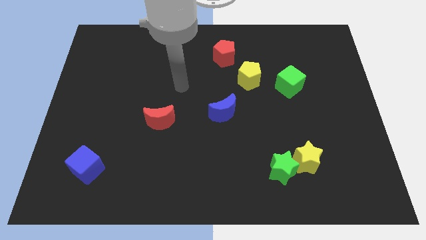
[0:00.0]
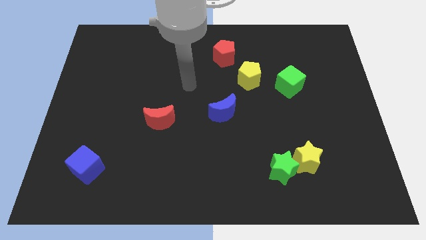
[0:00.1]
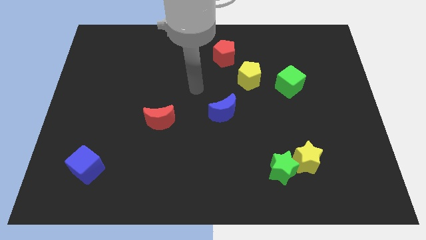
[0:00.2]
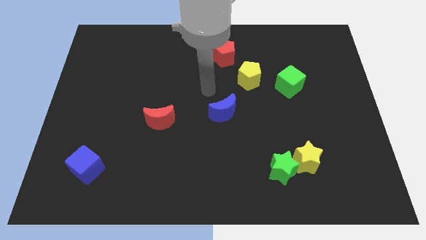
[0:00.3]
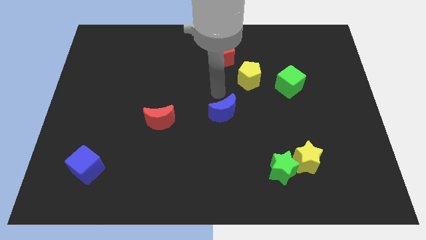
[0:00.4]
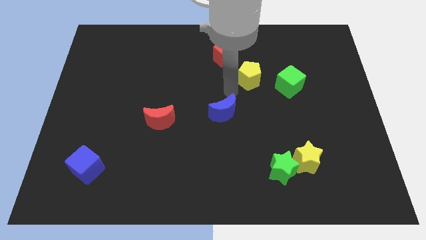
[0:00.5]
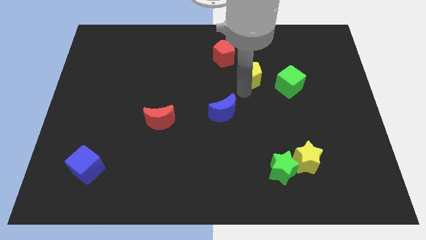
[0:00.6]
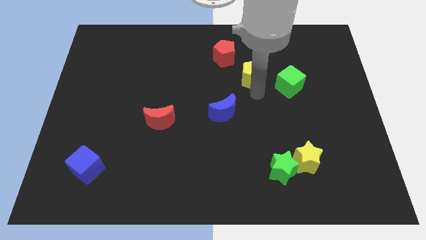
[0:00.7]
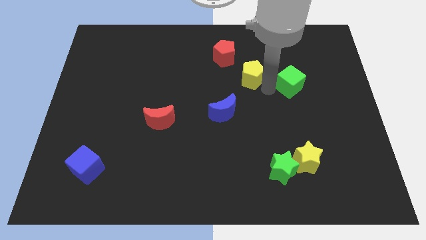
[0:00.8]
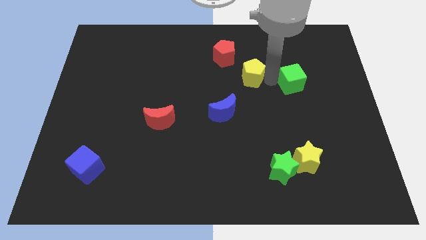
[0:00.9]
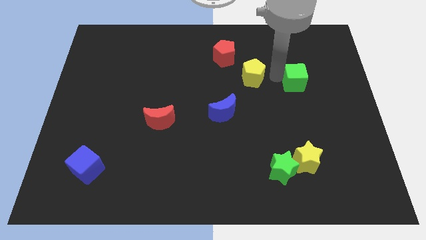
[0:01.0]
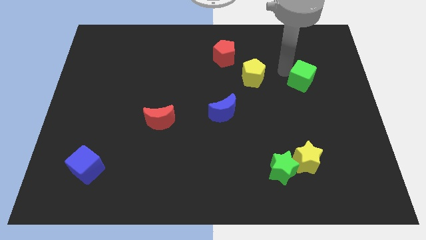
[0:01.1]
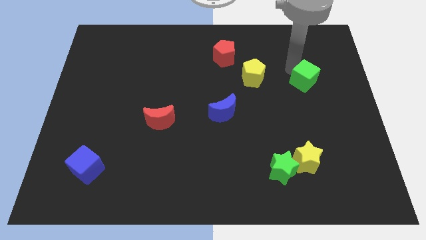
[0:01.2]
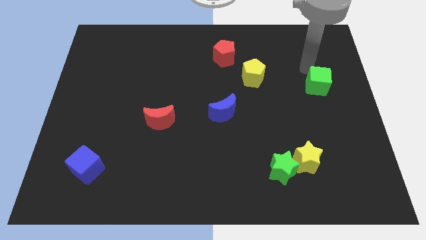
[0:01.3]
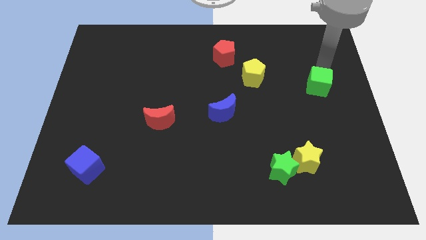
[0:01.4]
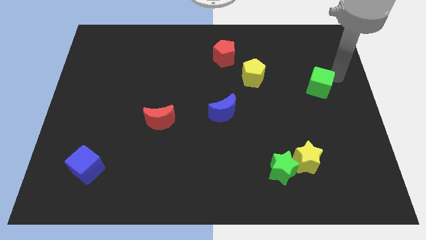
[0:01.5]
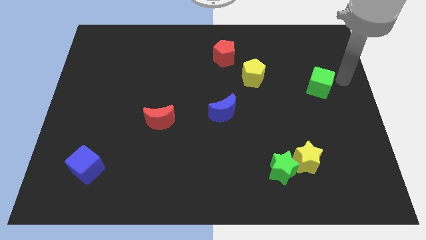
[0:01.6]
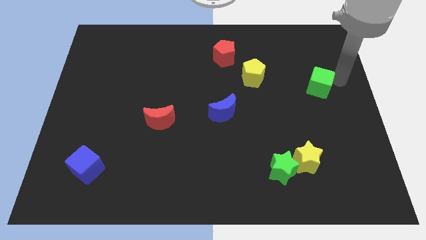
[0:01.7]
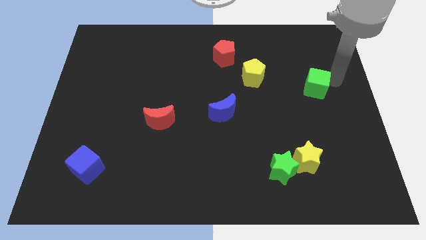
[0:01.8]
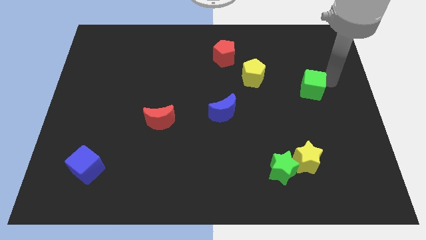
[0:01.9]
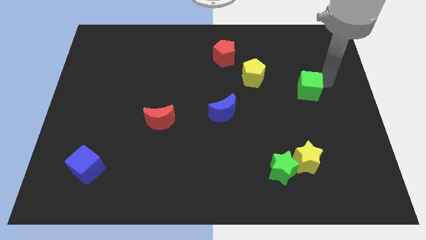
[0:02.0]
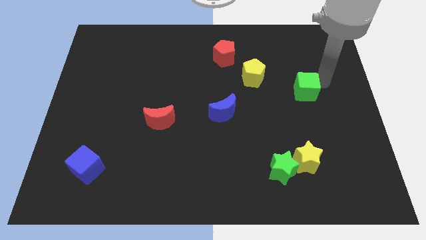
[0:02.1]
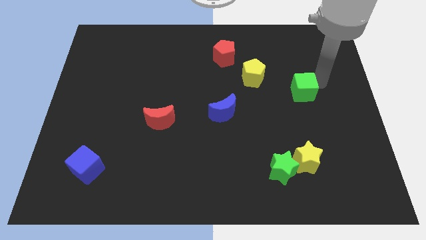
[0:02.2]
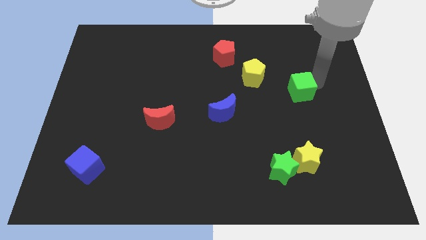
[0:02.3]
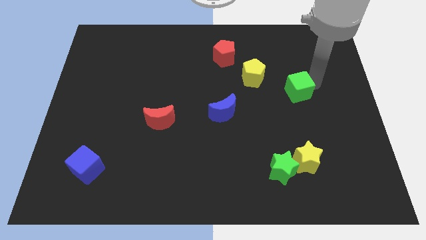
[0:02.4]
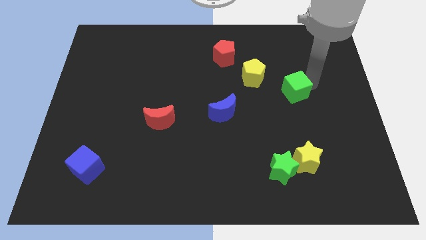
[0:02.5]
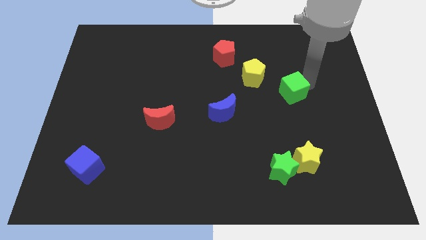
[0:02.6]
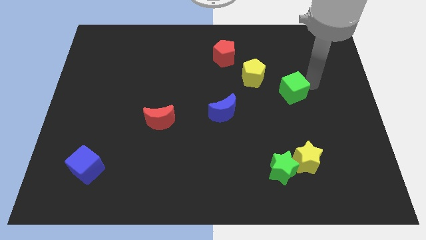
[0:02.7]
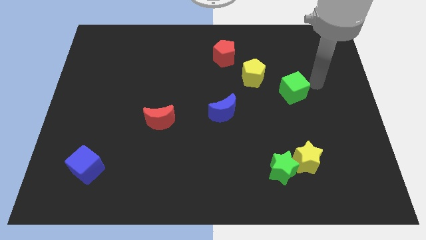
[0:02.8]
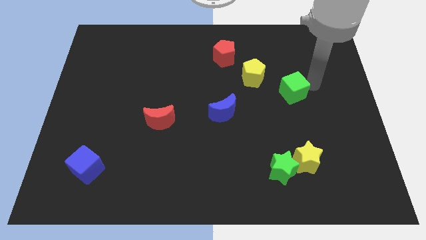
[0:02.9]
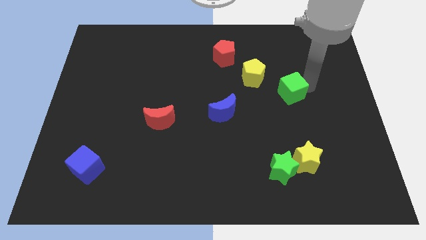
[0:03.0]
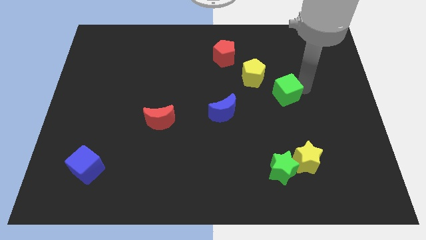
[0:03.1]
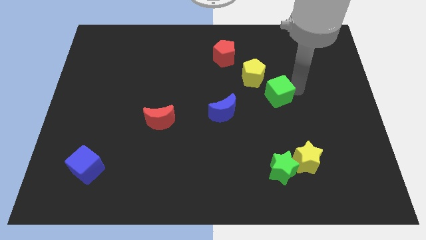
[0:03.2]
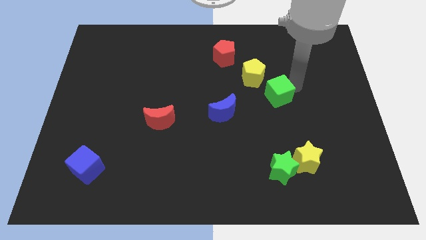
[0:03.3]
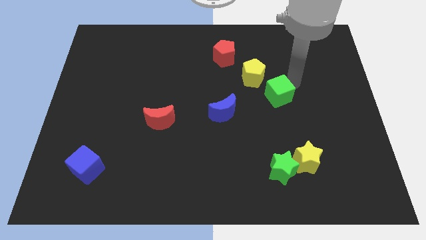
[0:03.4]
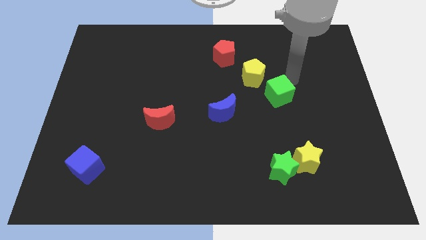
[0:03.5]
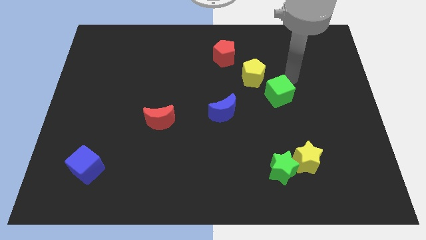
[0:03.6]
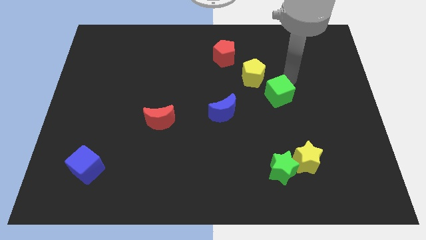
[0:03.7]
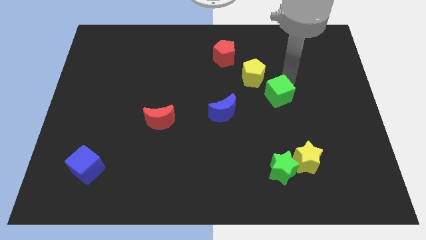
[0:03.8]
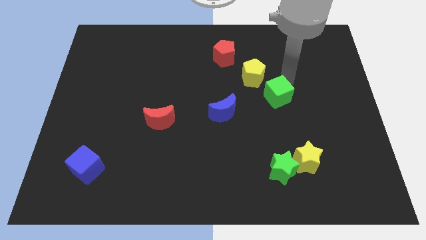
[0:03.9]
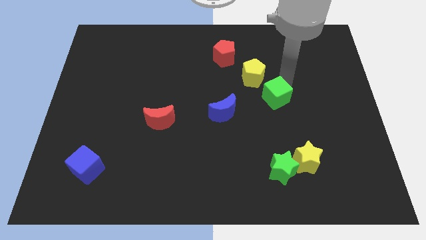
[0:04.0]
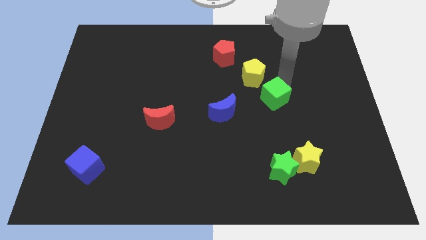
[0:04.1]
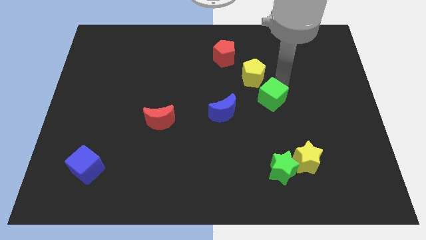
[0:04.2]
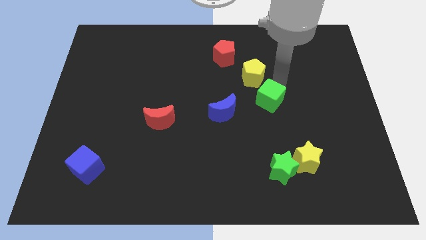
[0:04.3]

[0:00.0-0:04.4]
slightly move the green cube down and to the left

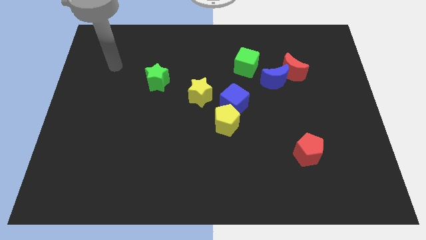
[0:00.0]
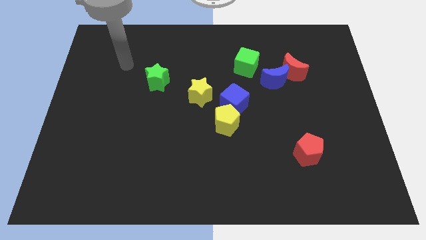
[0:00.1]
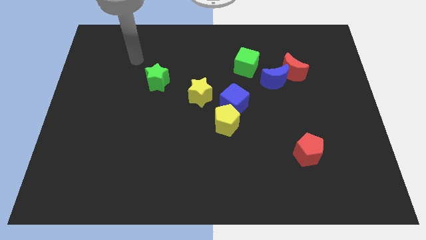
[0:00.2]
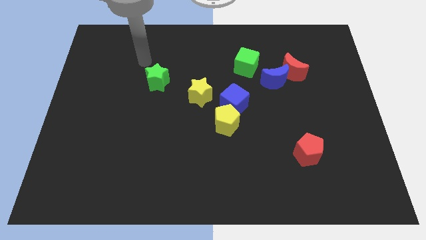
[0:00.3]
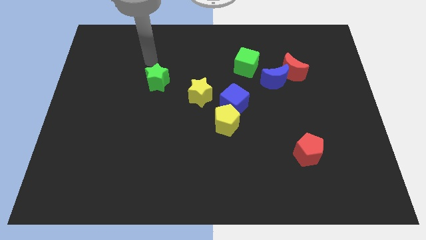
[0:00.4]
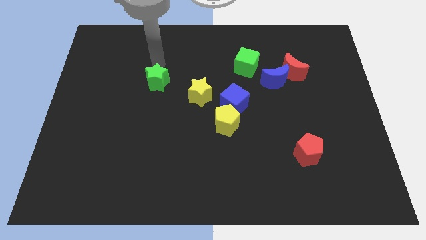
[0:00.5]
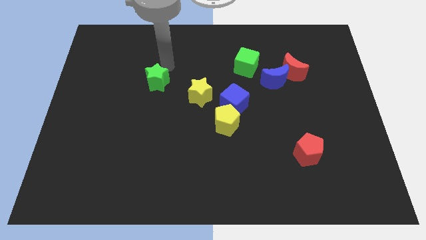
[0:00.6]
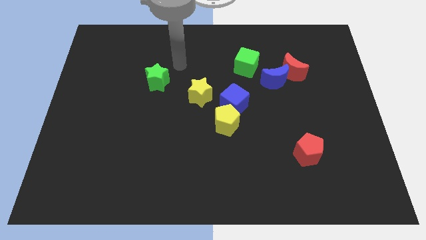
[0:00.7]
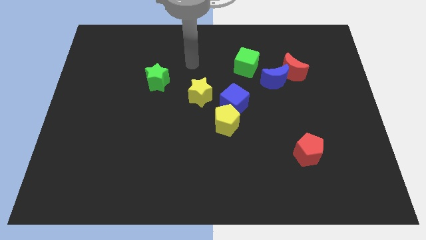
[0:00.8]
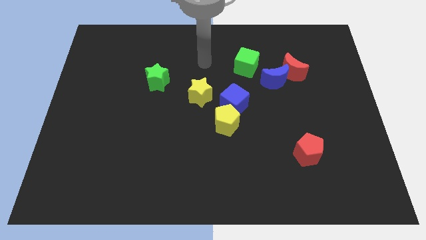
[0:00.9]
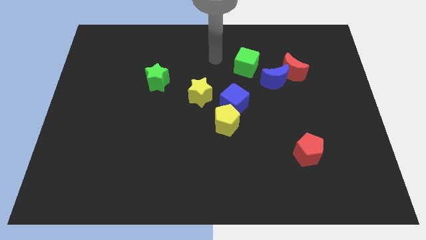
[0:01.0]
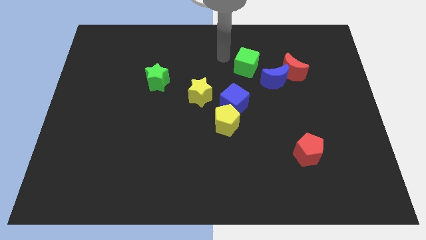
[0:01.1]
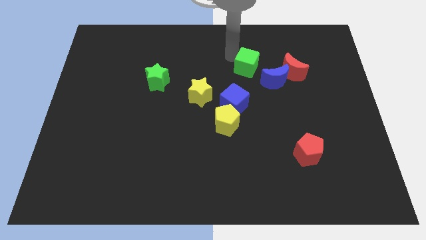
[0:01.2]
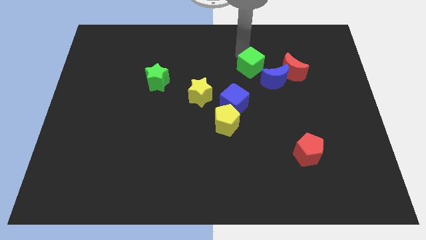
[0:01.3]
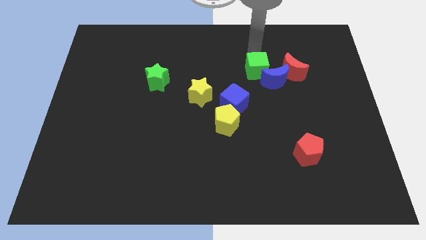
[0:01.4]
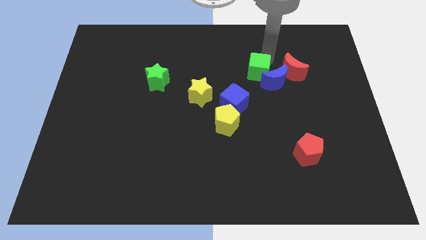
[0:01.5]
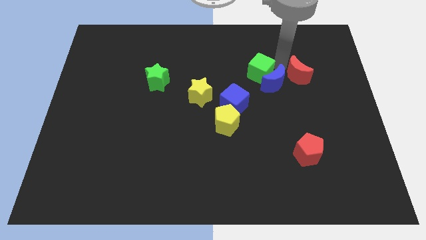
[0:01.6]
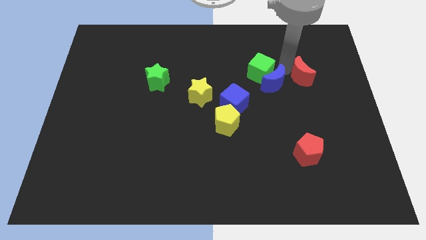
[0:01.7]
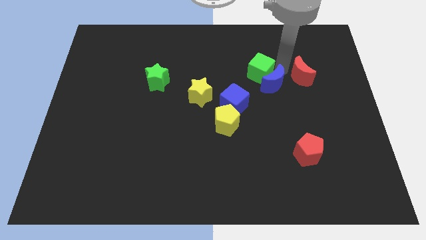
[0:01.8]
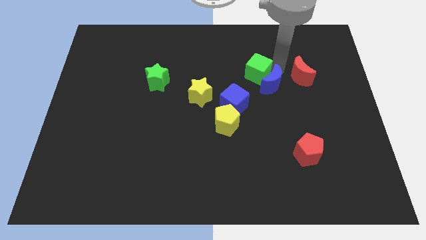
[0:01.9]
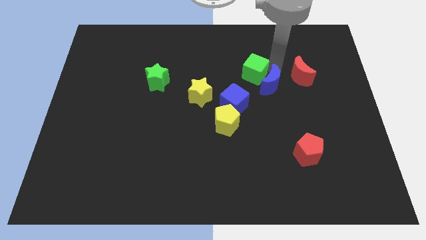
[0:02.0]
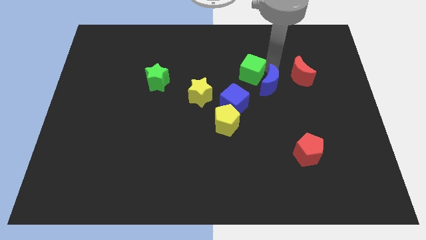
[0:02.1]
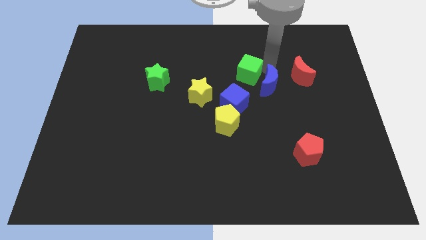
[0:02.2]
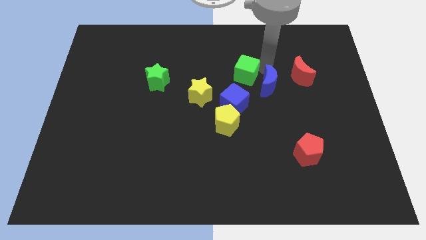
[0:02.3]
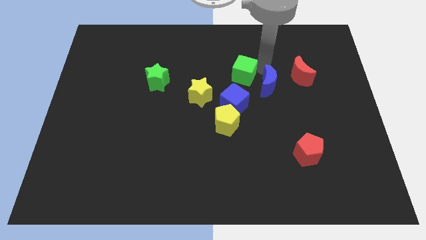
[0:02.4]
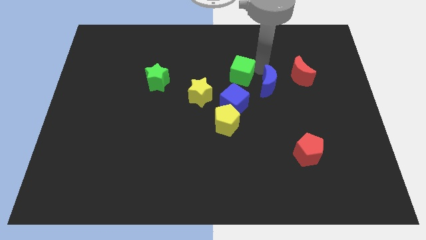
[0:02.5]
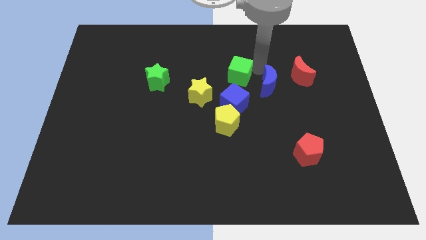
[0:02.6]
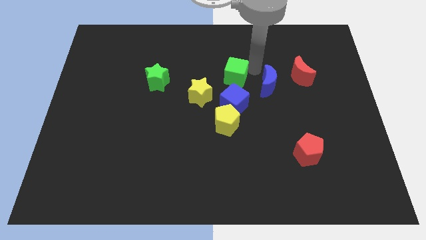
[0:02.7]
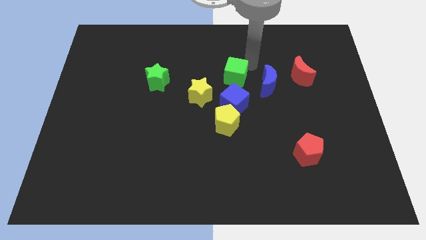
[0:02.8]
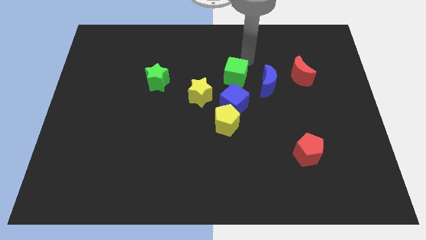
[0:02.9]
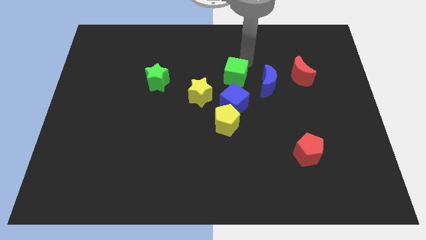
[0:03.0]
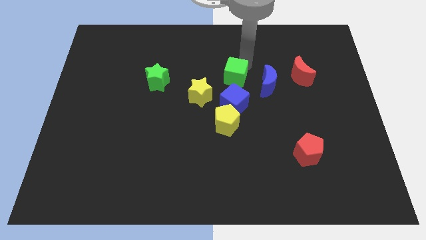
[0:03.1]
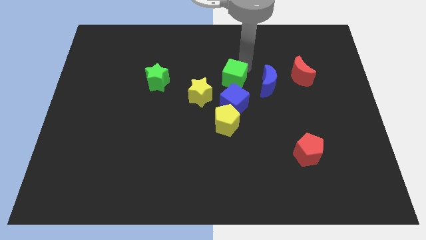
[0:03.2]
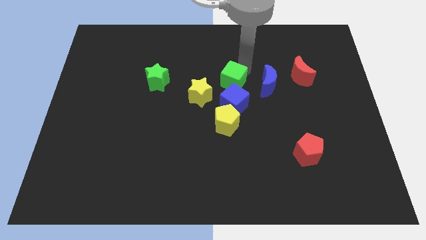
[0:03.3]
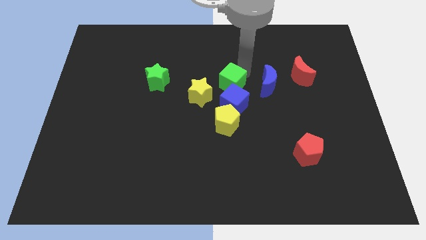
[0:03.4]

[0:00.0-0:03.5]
push the green cube down and to the left diagonally somewhat

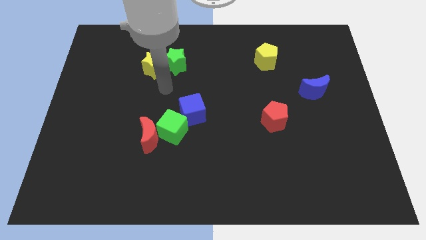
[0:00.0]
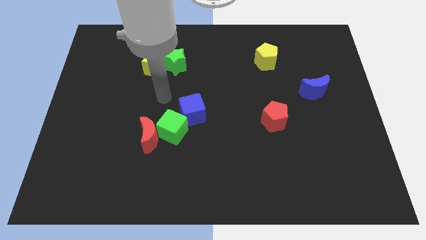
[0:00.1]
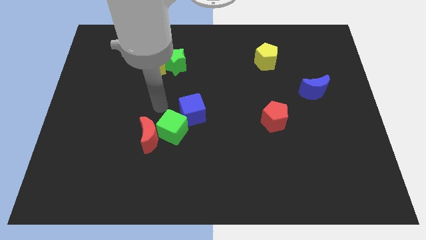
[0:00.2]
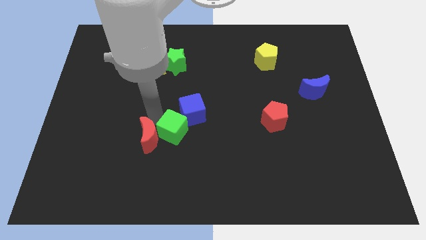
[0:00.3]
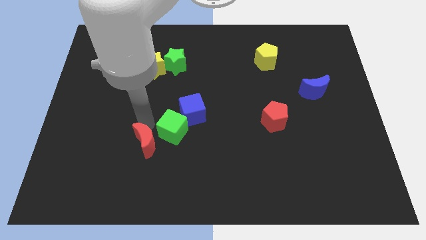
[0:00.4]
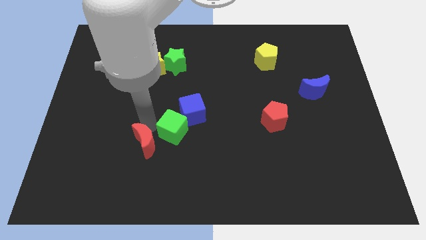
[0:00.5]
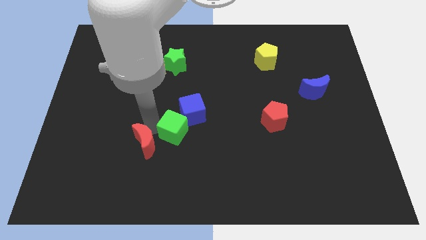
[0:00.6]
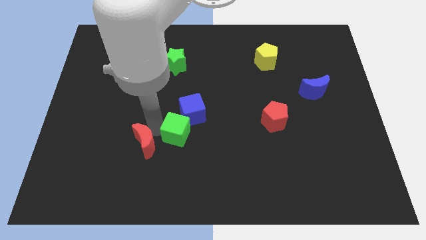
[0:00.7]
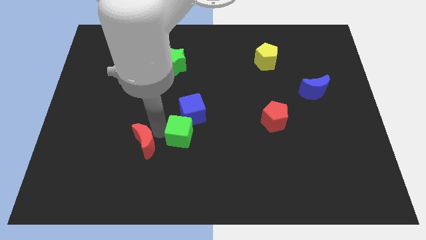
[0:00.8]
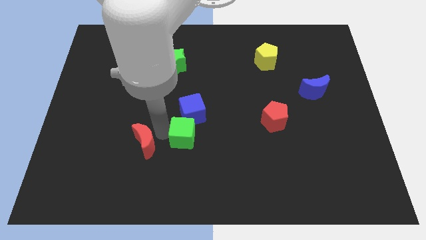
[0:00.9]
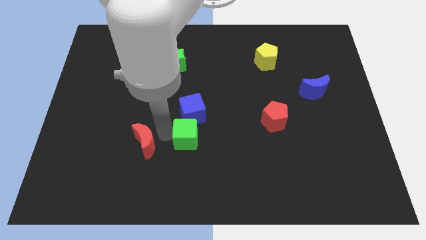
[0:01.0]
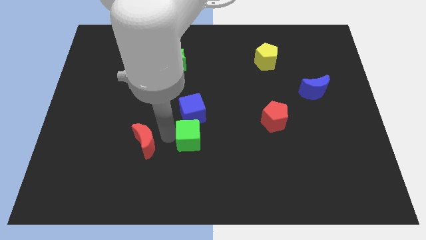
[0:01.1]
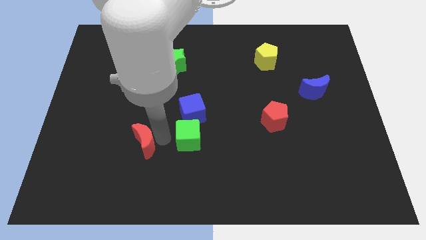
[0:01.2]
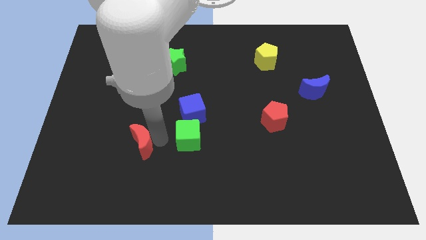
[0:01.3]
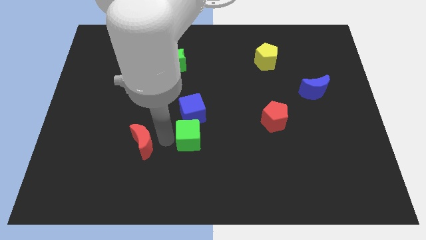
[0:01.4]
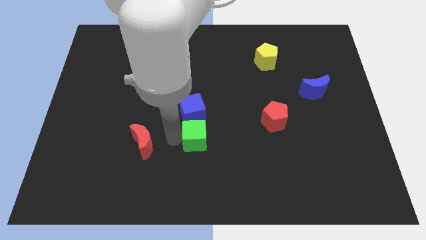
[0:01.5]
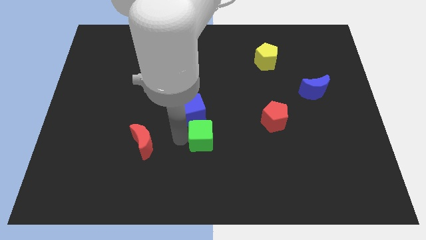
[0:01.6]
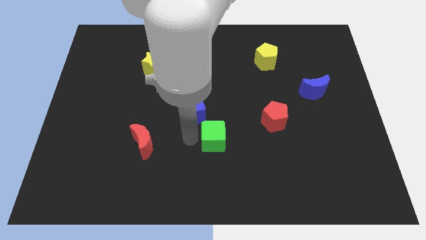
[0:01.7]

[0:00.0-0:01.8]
push the green cube to the right slightly
